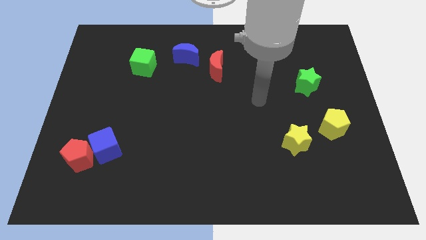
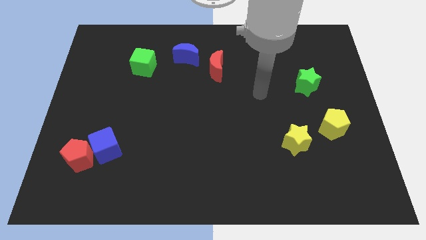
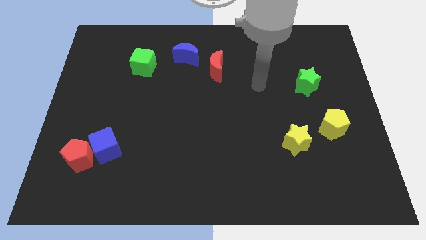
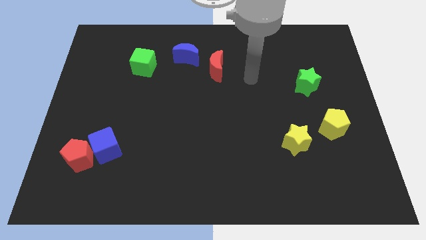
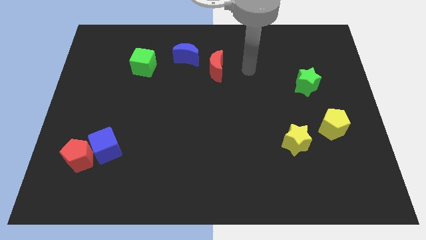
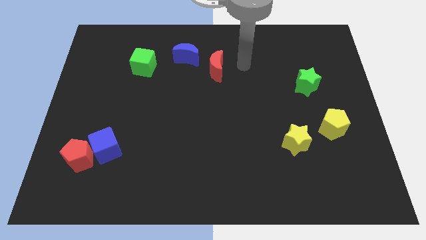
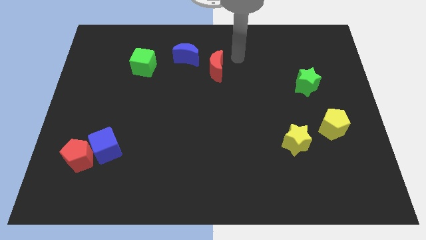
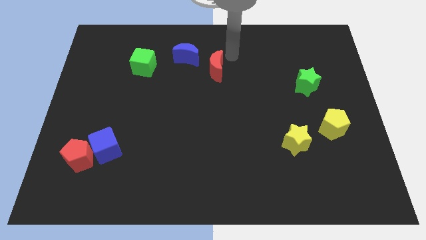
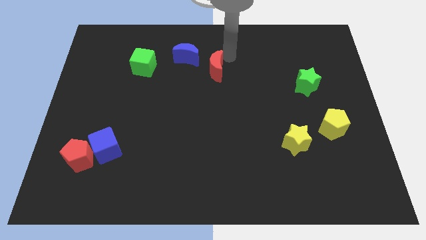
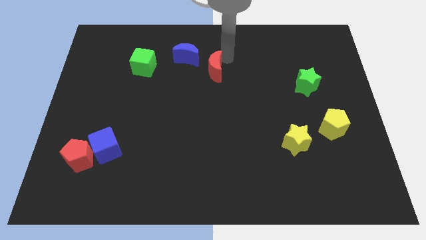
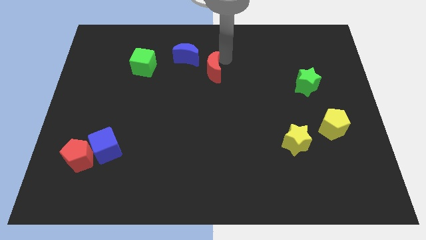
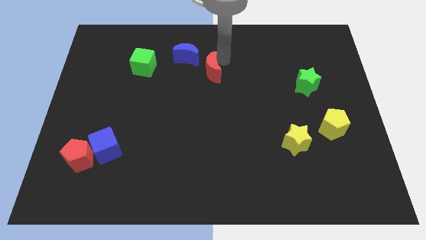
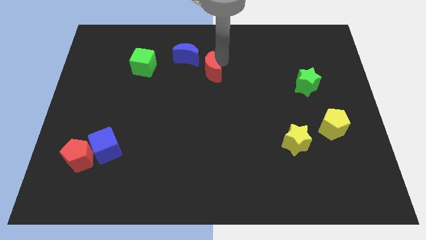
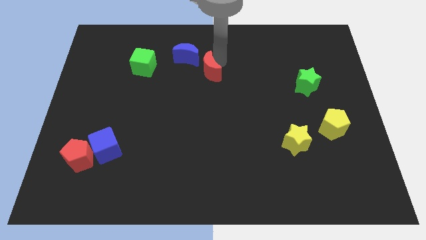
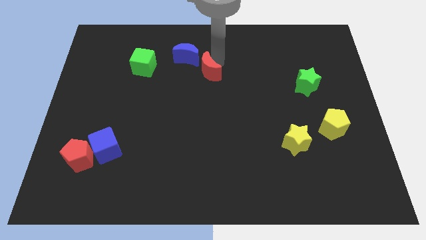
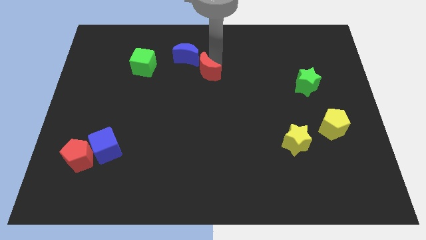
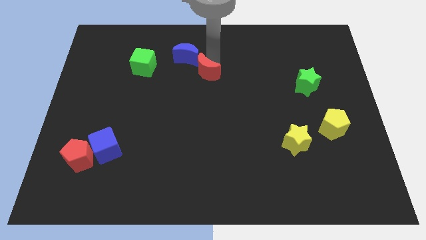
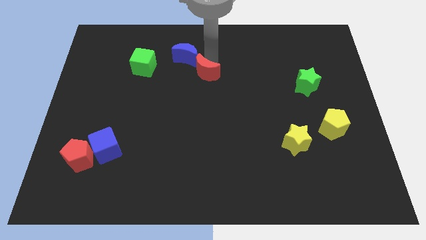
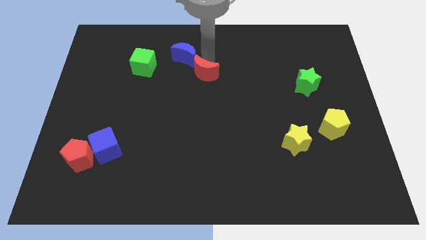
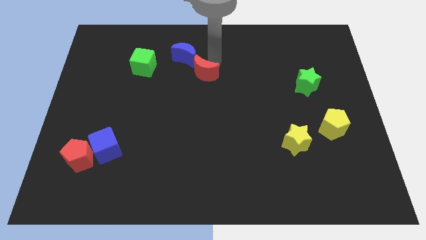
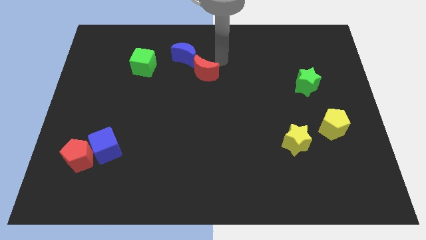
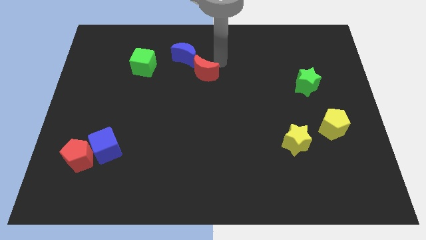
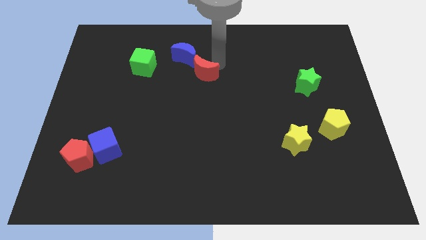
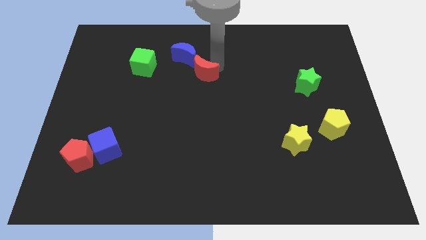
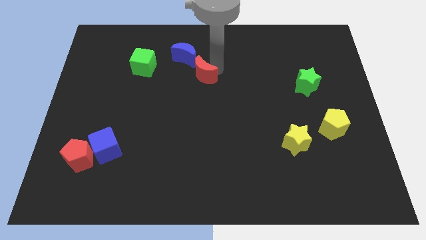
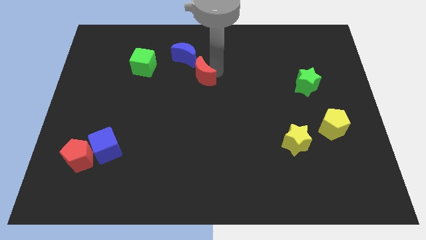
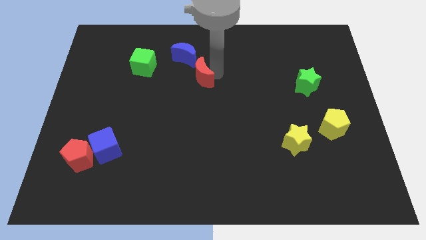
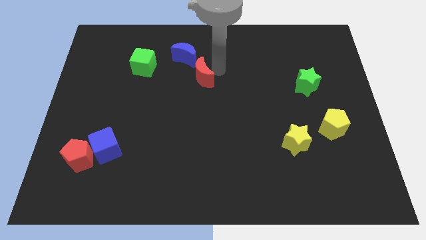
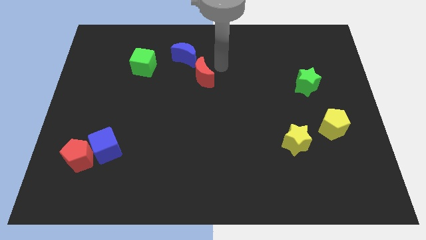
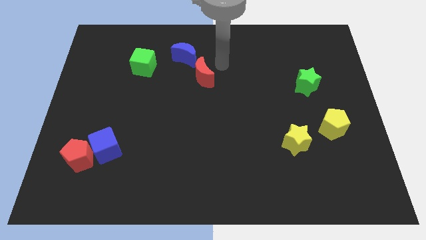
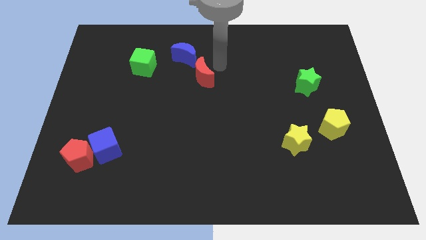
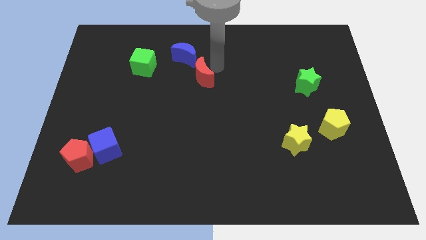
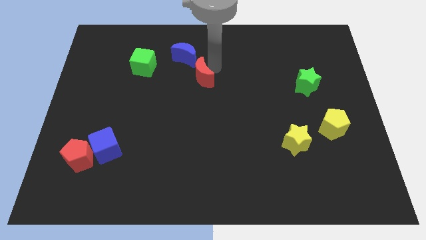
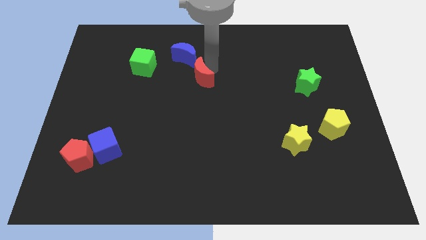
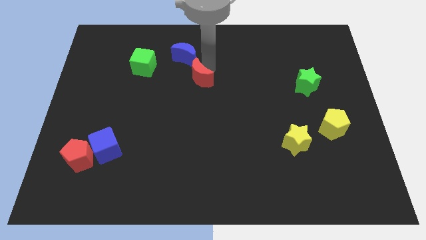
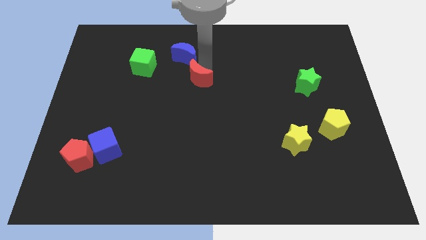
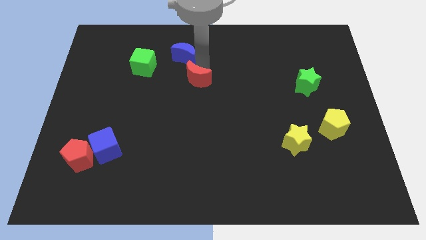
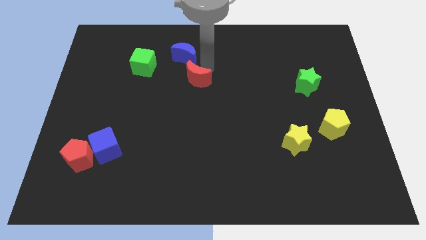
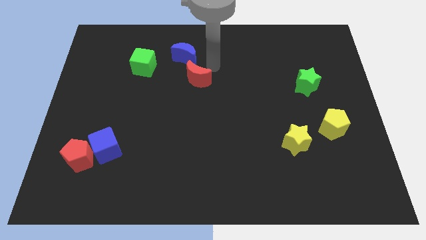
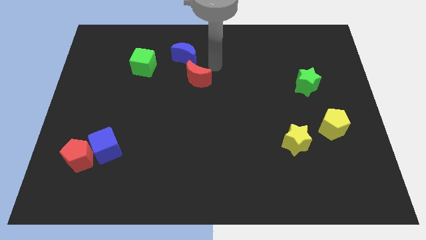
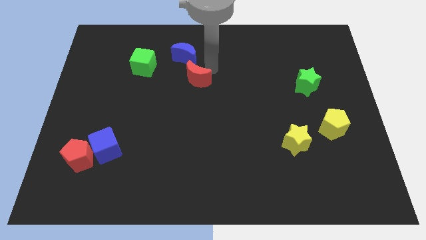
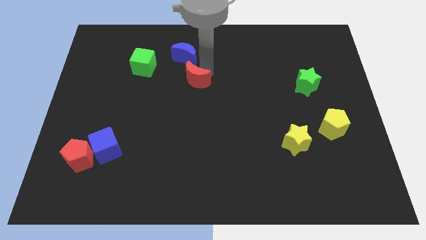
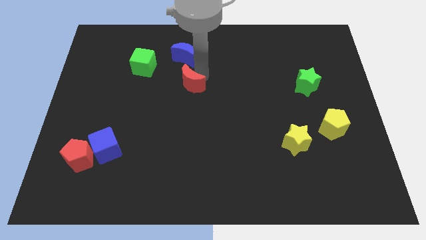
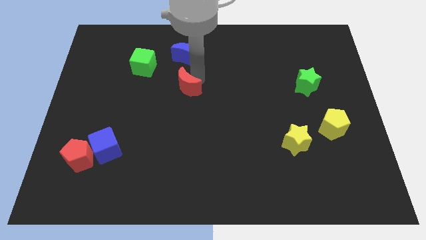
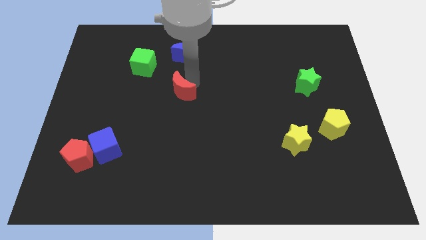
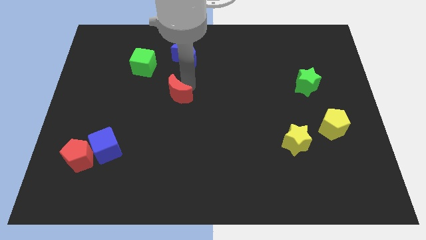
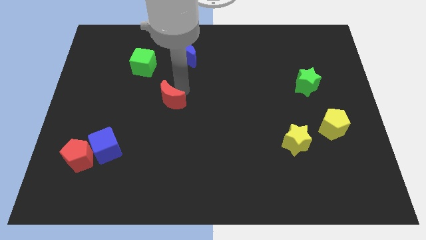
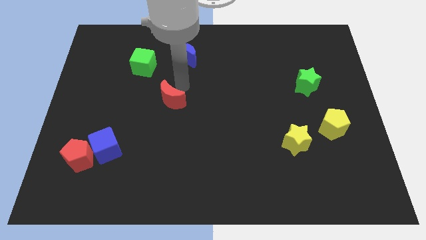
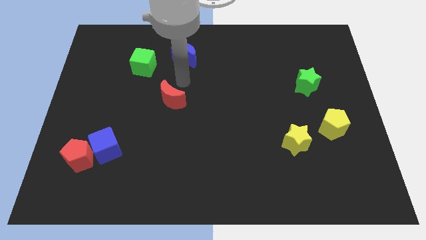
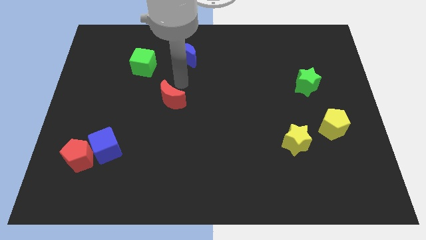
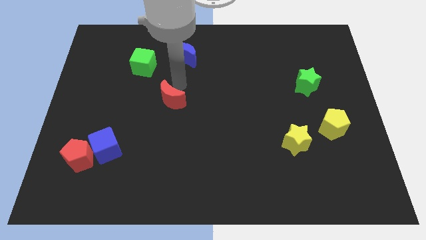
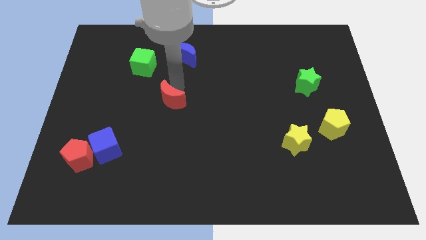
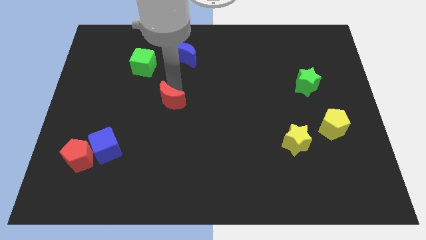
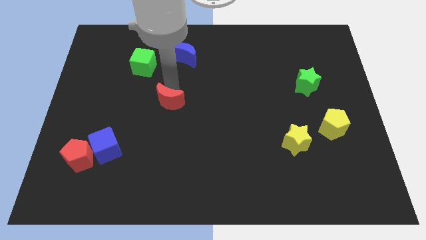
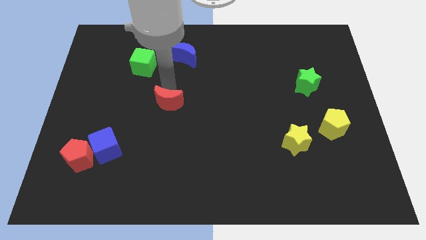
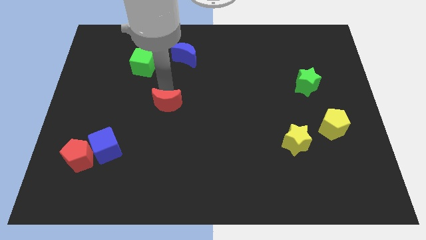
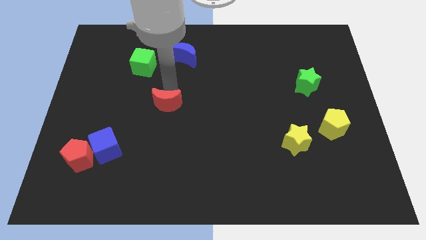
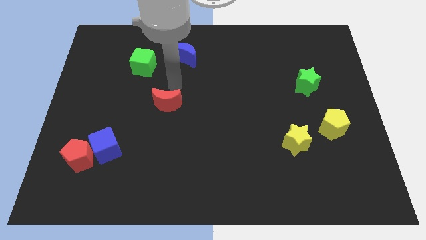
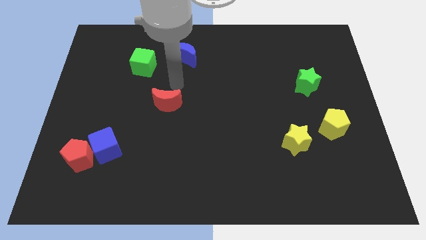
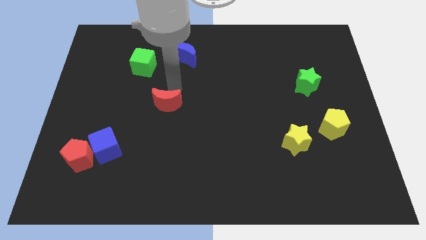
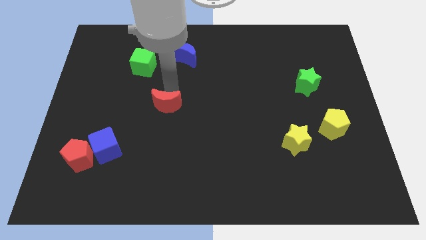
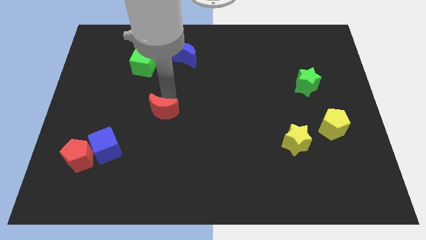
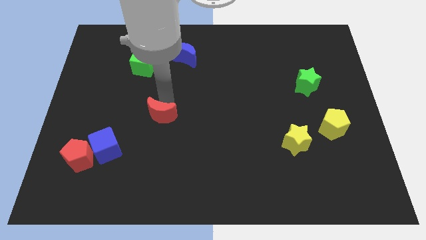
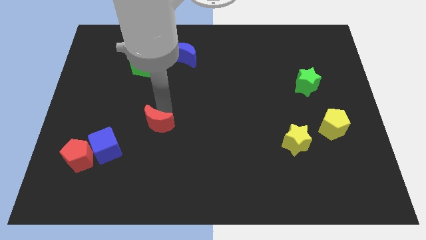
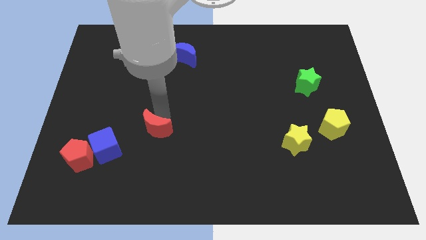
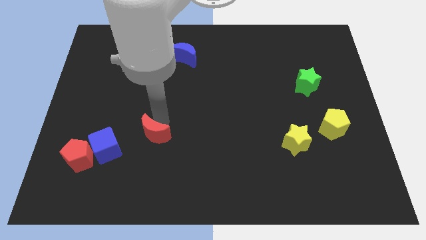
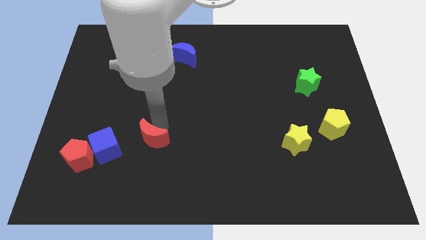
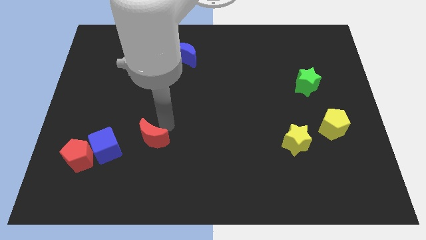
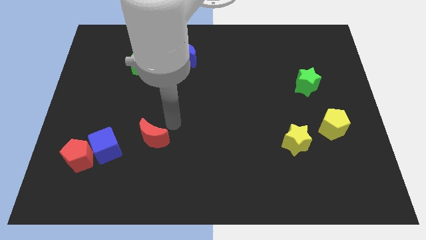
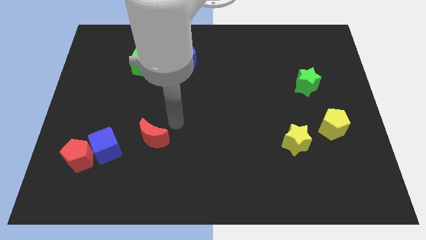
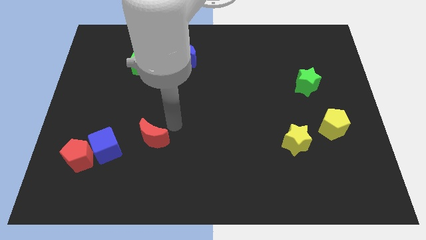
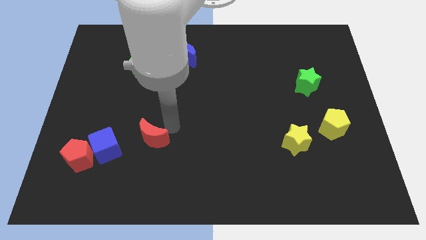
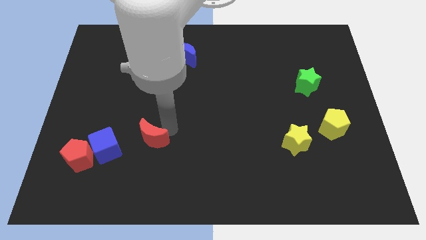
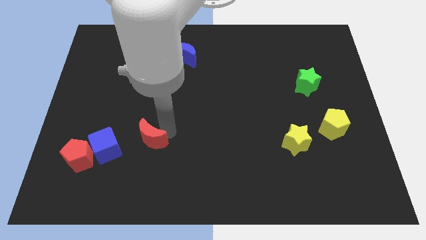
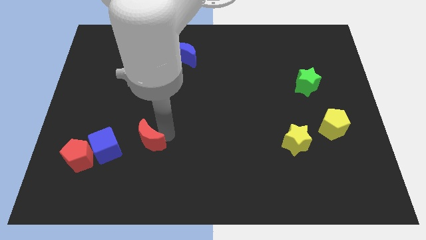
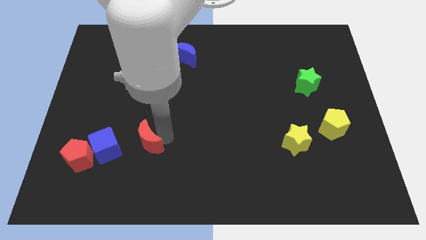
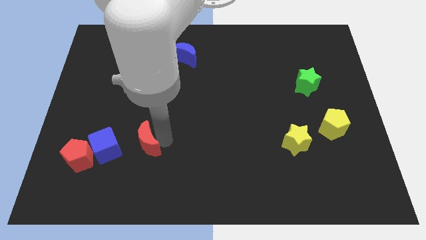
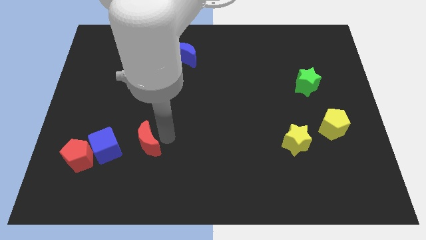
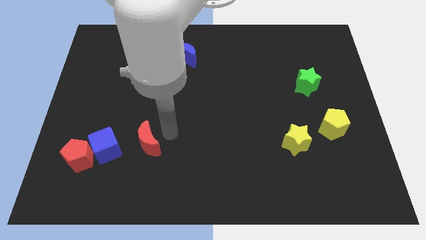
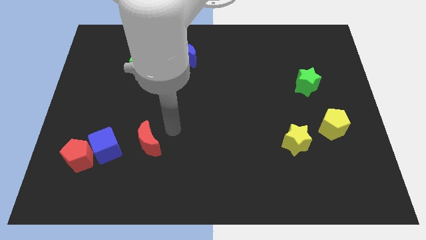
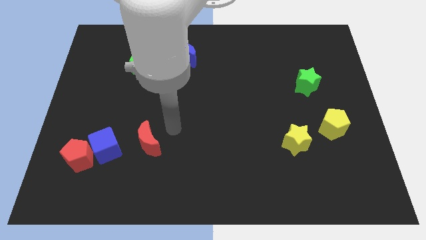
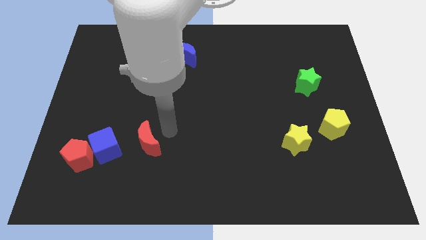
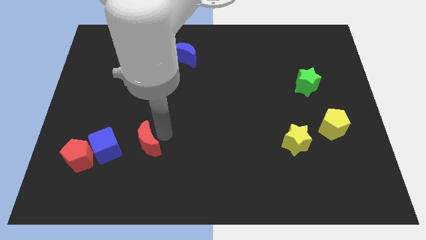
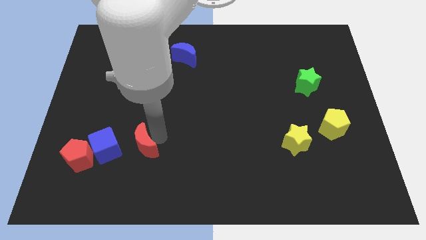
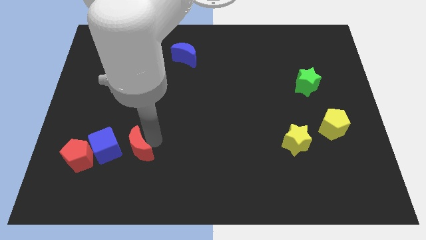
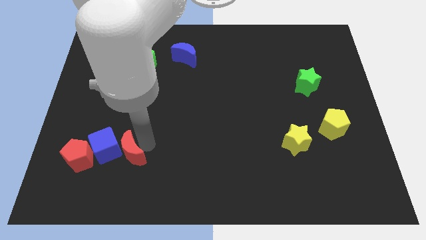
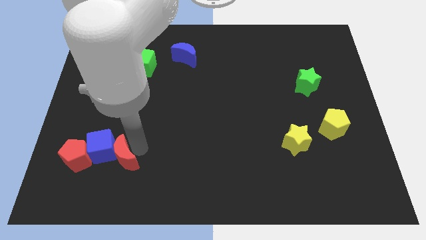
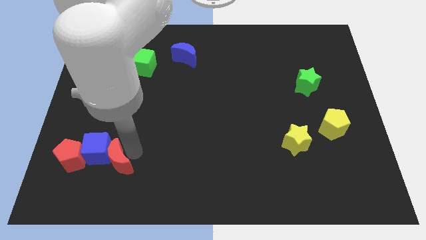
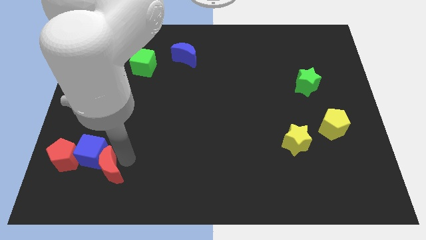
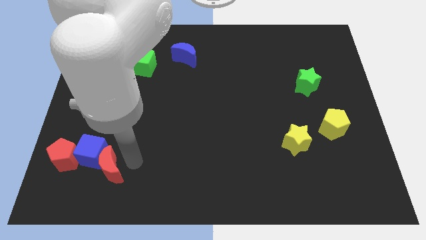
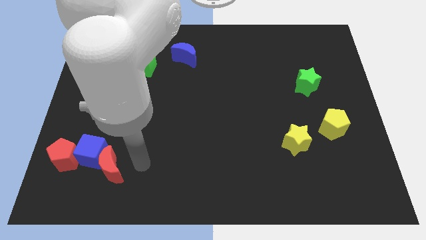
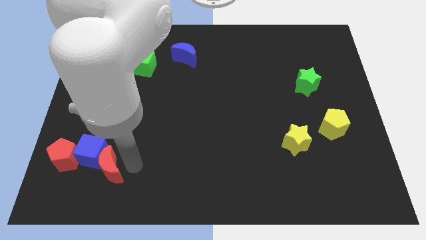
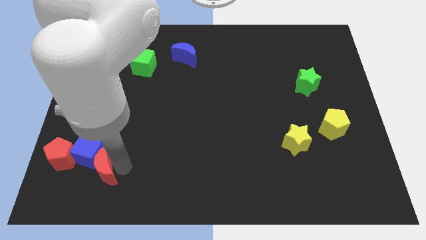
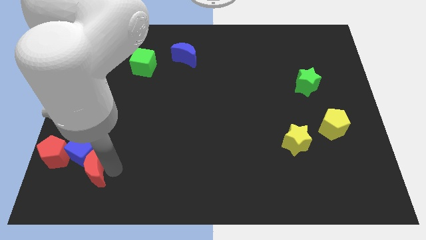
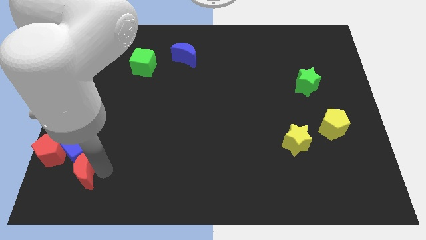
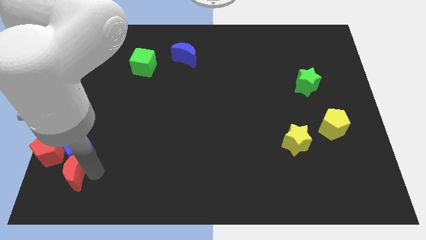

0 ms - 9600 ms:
move the red moon to the bottom left side of the blue cube
